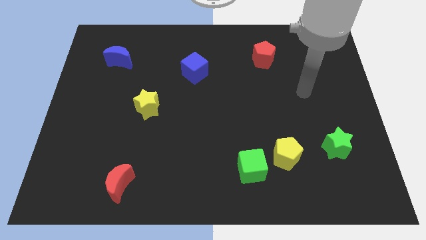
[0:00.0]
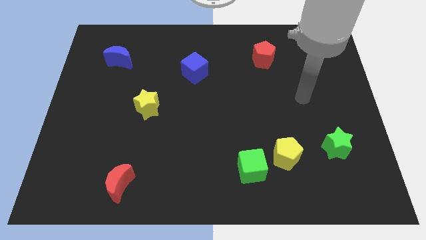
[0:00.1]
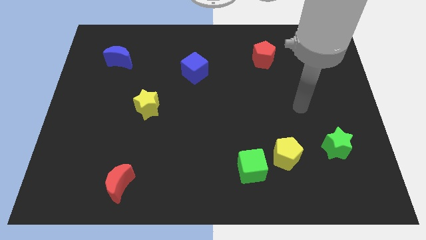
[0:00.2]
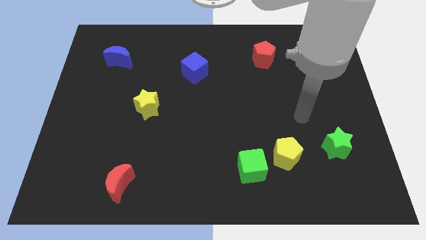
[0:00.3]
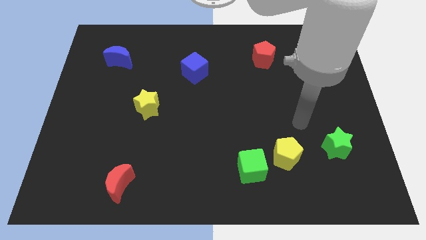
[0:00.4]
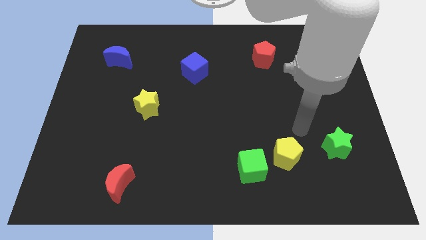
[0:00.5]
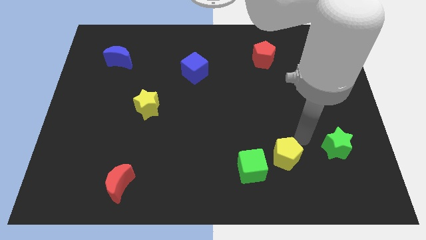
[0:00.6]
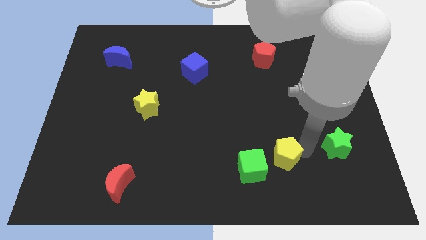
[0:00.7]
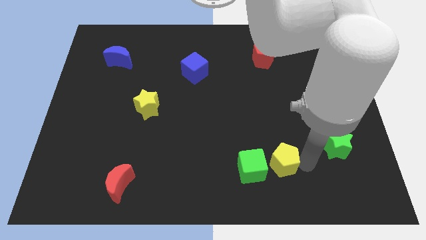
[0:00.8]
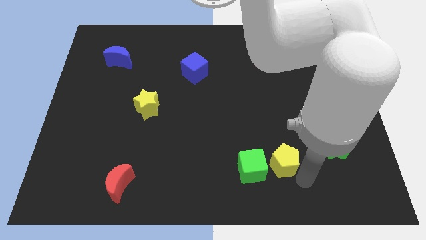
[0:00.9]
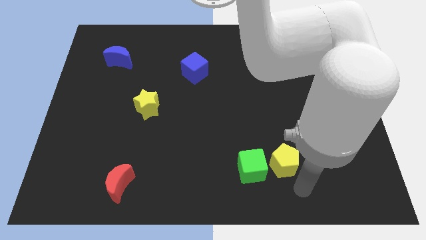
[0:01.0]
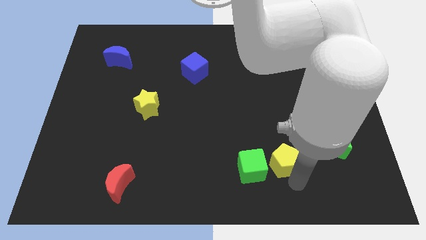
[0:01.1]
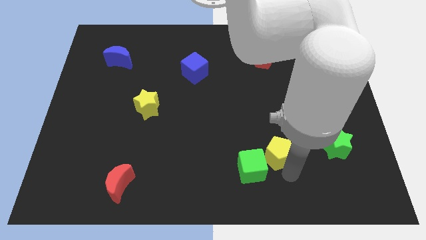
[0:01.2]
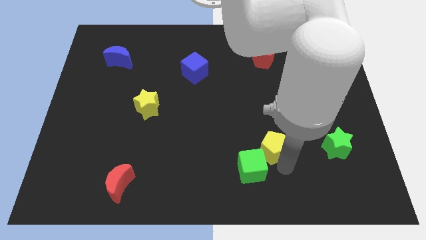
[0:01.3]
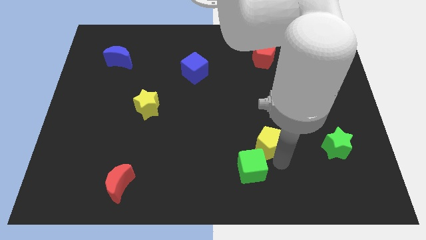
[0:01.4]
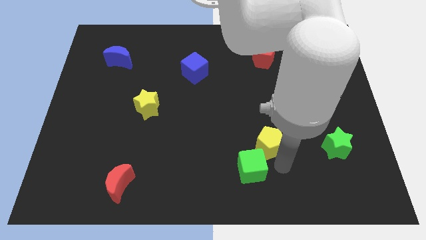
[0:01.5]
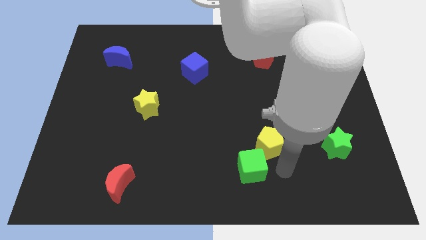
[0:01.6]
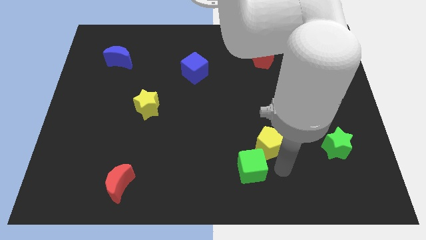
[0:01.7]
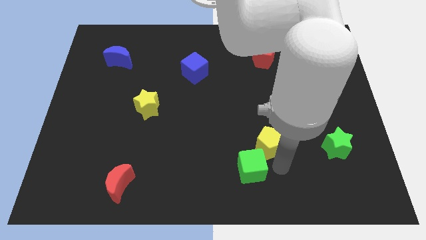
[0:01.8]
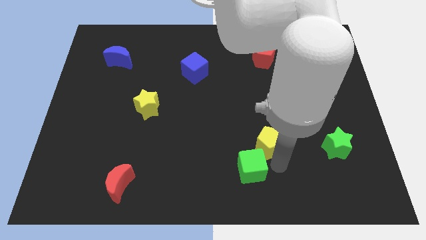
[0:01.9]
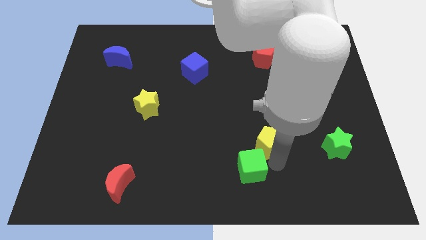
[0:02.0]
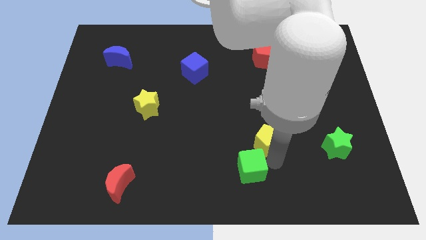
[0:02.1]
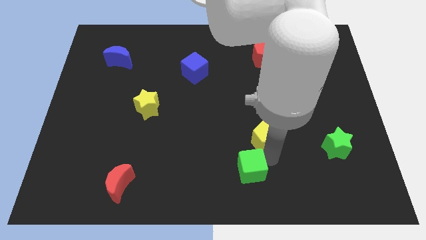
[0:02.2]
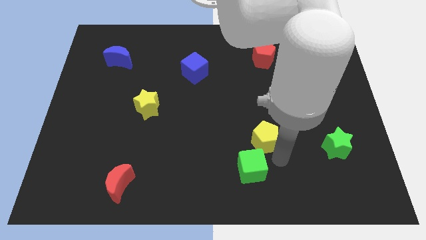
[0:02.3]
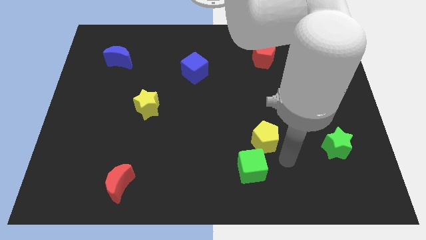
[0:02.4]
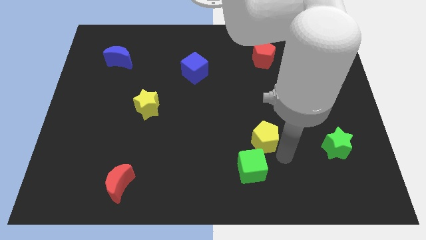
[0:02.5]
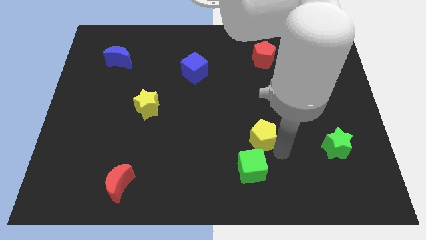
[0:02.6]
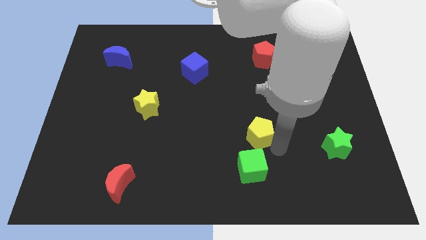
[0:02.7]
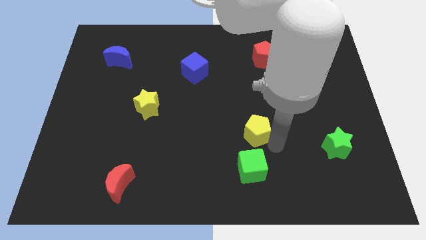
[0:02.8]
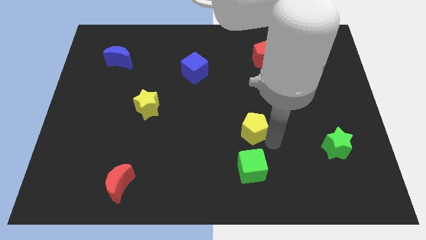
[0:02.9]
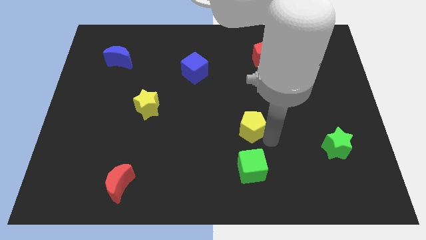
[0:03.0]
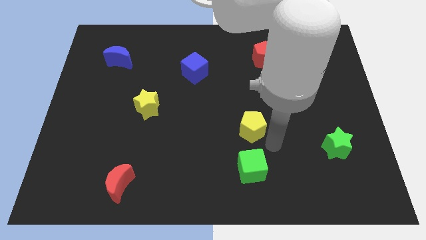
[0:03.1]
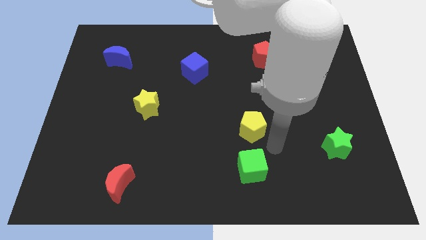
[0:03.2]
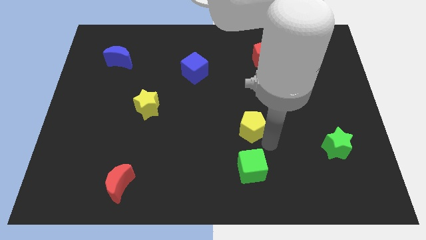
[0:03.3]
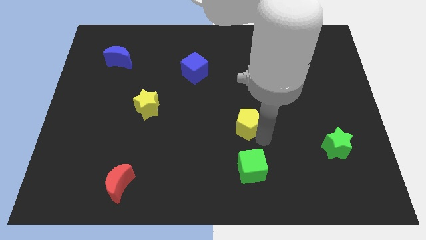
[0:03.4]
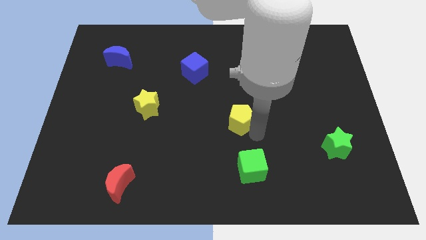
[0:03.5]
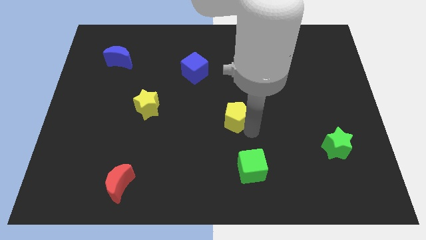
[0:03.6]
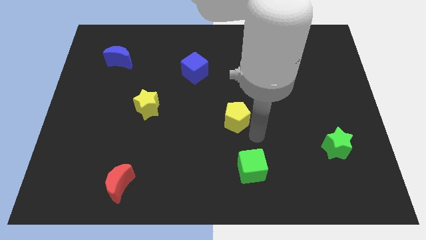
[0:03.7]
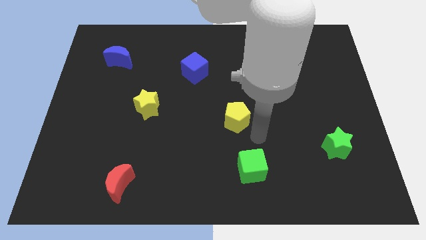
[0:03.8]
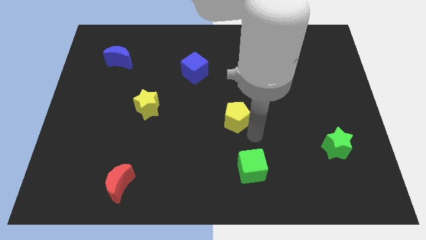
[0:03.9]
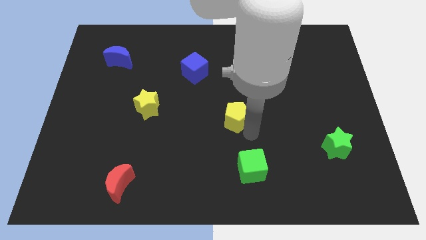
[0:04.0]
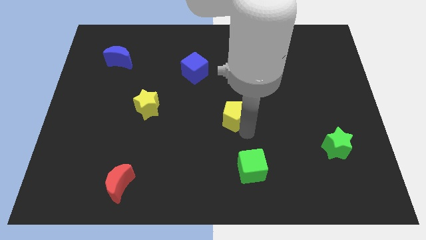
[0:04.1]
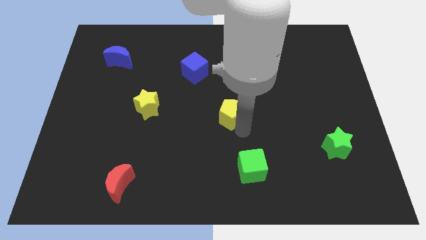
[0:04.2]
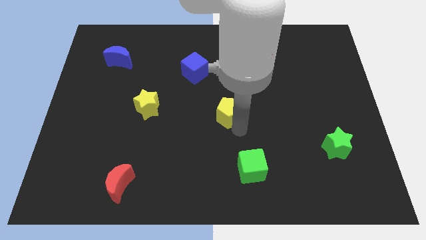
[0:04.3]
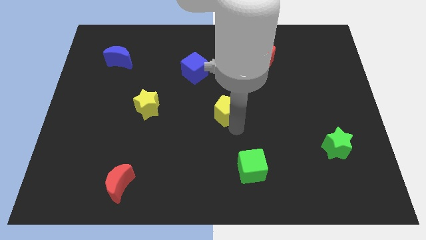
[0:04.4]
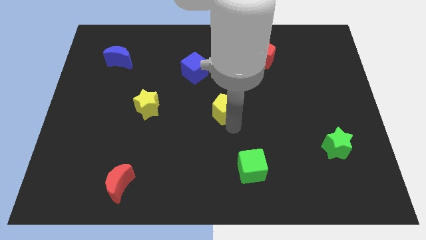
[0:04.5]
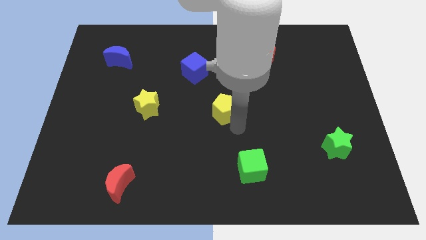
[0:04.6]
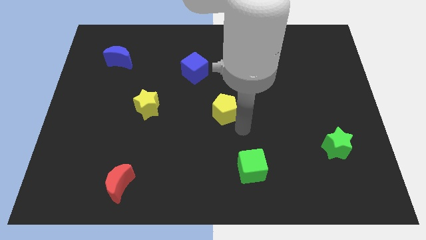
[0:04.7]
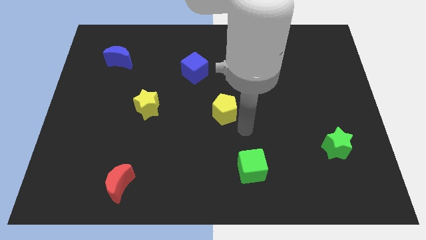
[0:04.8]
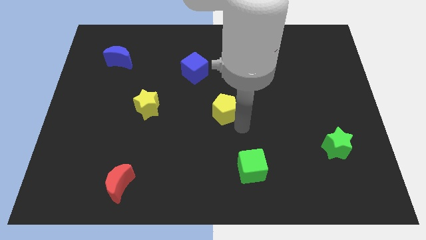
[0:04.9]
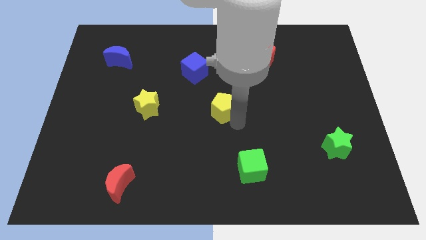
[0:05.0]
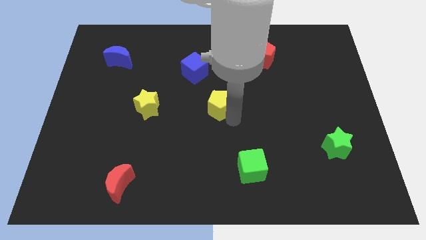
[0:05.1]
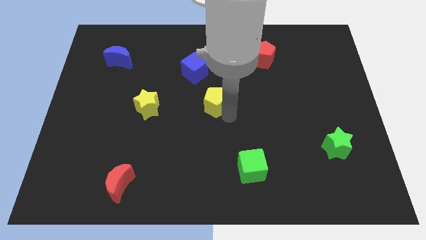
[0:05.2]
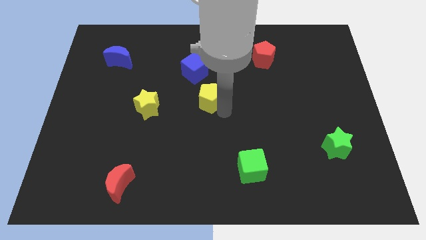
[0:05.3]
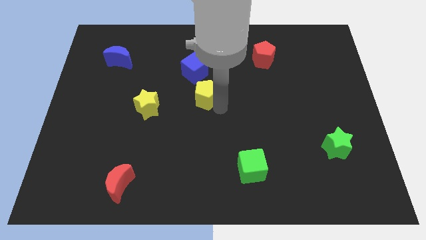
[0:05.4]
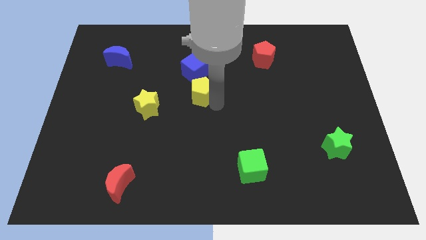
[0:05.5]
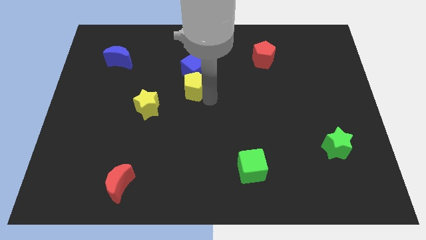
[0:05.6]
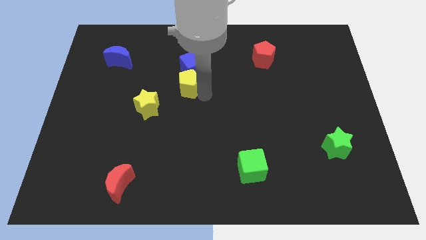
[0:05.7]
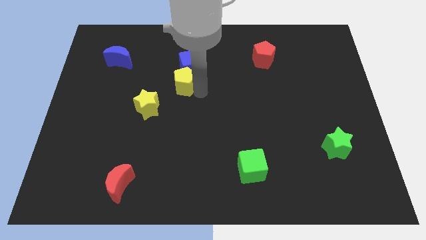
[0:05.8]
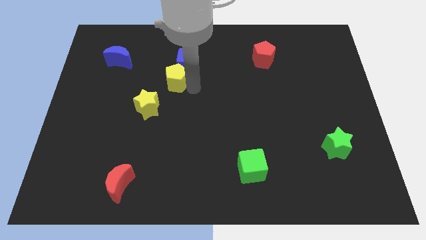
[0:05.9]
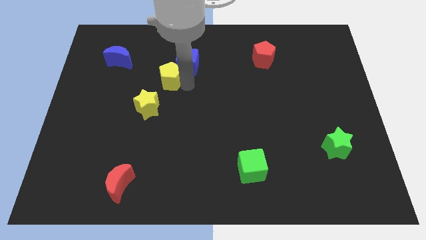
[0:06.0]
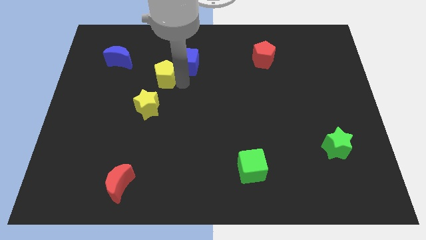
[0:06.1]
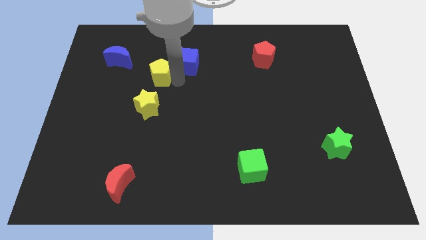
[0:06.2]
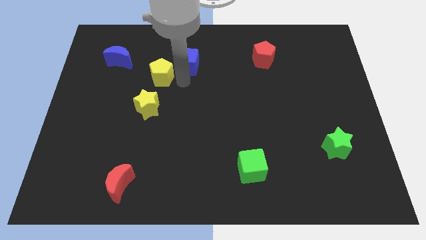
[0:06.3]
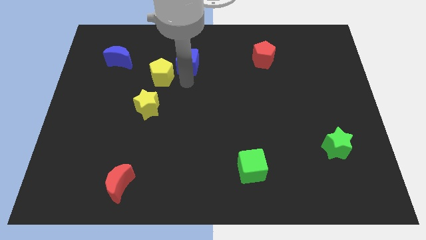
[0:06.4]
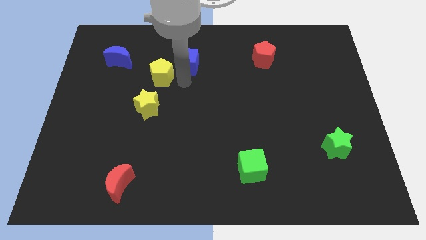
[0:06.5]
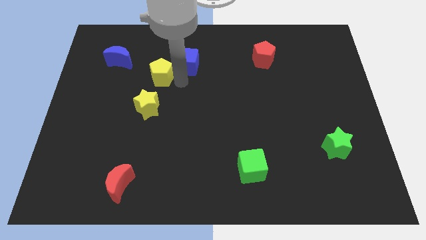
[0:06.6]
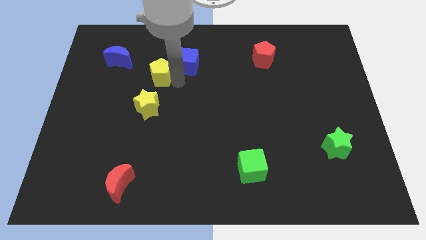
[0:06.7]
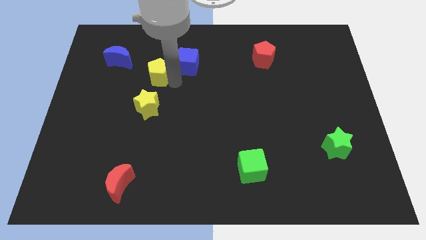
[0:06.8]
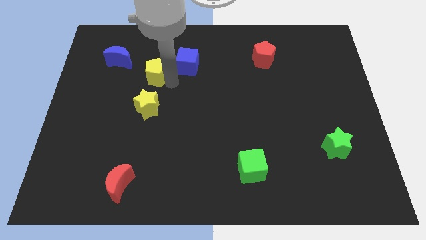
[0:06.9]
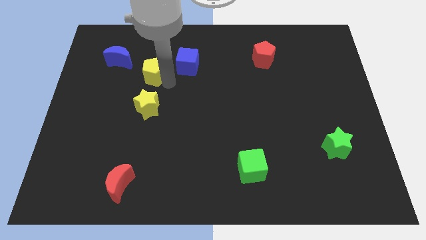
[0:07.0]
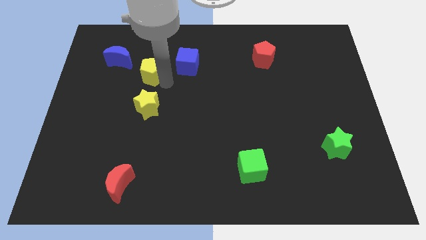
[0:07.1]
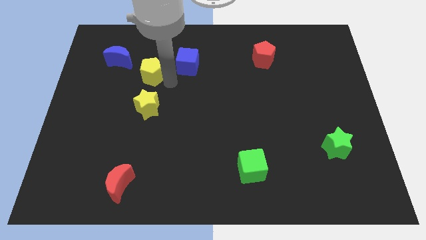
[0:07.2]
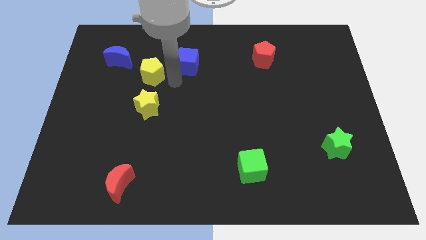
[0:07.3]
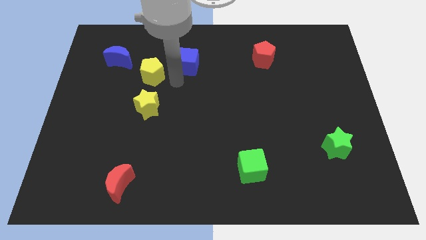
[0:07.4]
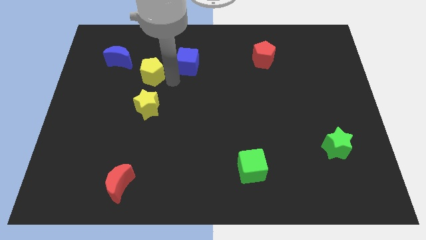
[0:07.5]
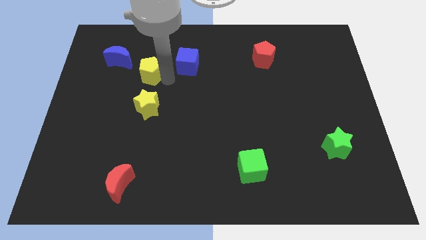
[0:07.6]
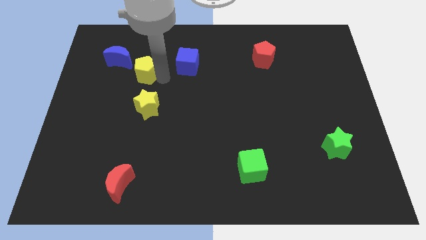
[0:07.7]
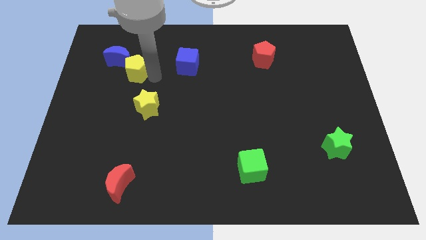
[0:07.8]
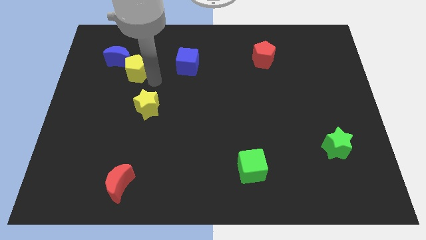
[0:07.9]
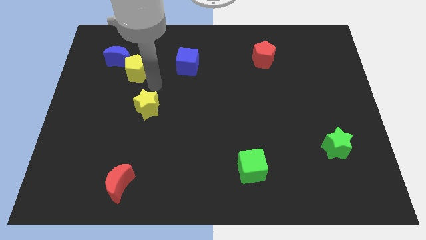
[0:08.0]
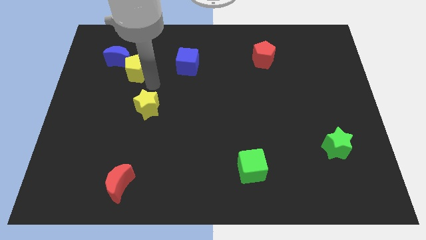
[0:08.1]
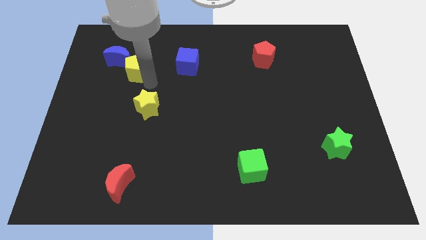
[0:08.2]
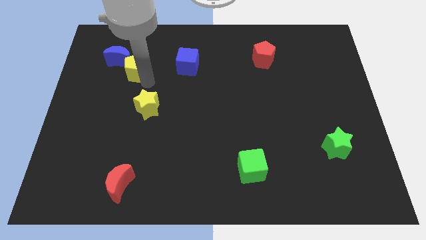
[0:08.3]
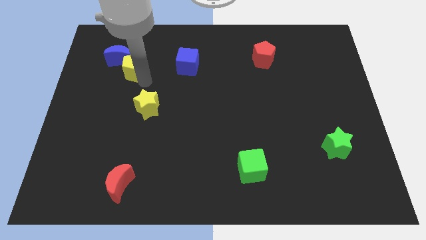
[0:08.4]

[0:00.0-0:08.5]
put the yellow pentagon towards the blue moon
